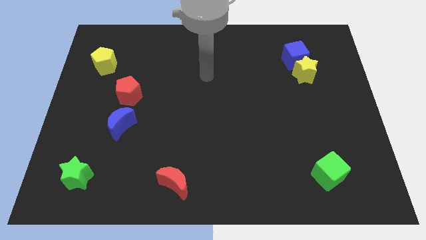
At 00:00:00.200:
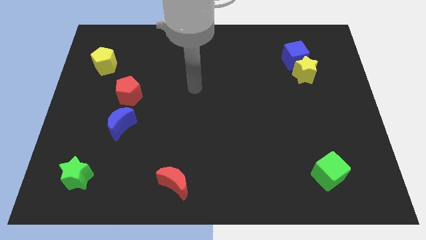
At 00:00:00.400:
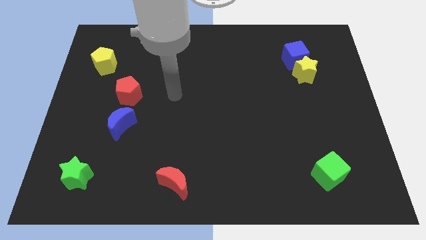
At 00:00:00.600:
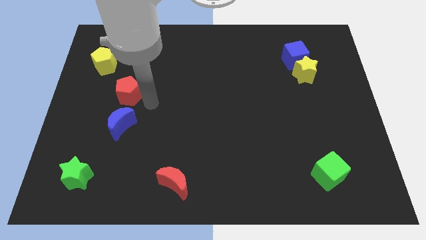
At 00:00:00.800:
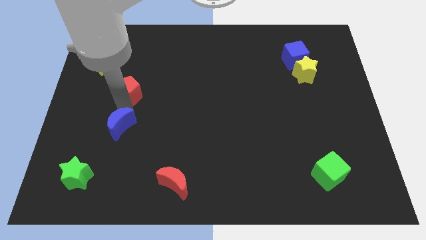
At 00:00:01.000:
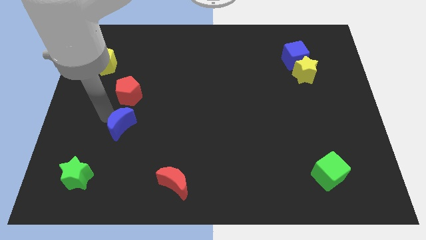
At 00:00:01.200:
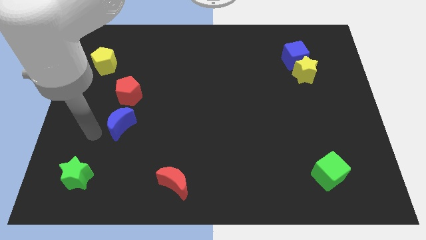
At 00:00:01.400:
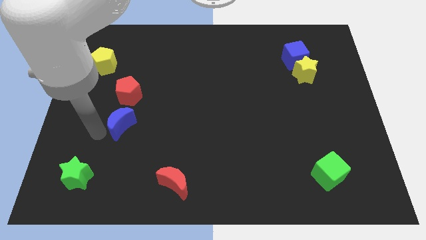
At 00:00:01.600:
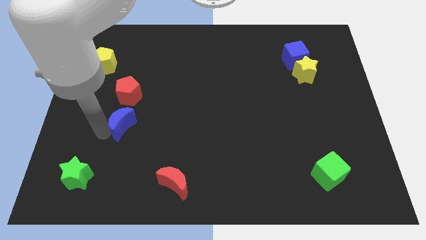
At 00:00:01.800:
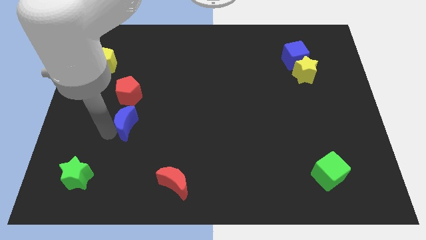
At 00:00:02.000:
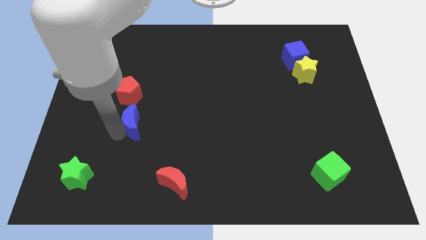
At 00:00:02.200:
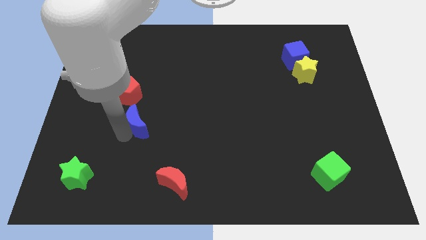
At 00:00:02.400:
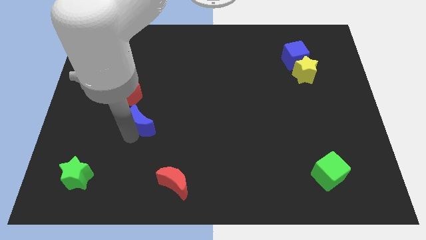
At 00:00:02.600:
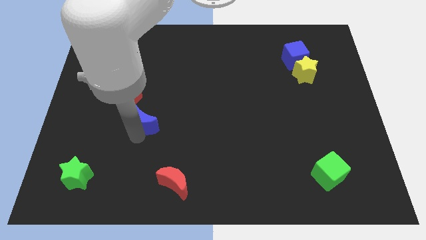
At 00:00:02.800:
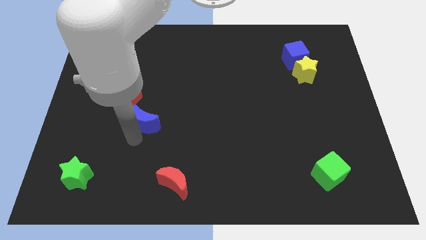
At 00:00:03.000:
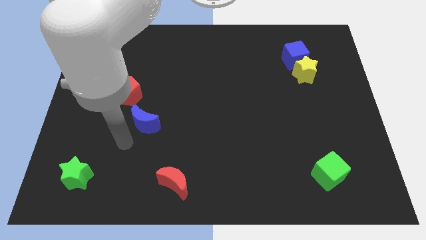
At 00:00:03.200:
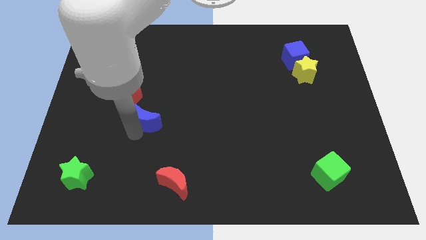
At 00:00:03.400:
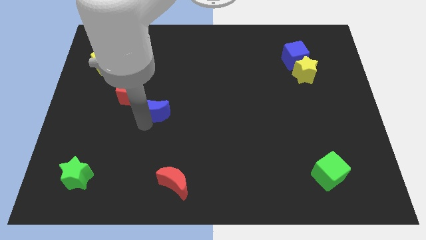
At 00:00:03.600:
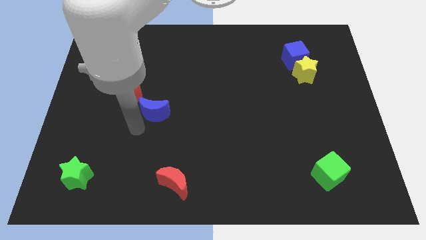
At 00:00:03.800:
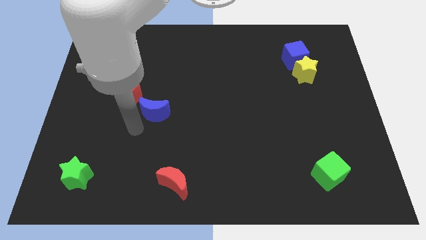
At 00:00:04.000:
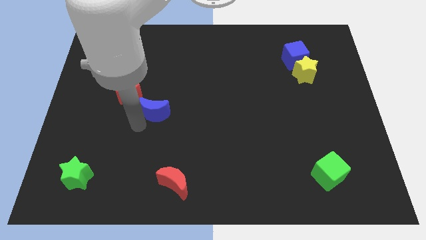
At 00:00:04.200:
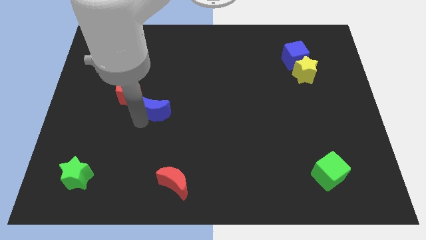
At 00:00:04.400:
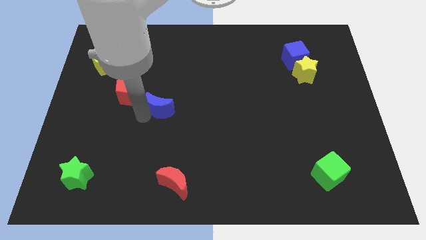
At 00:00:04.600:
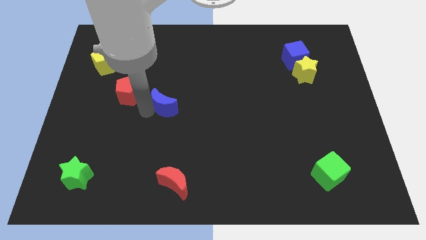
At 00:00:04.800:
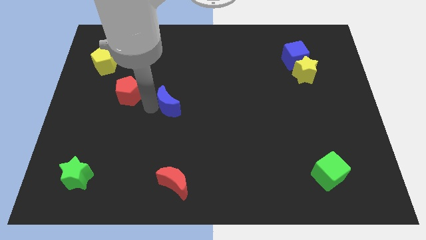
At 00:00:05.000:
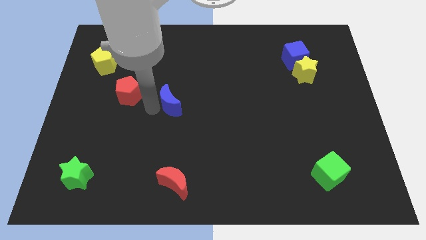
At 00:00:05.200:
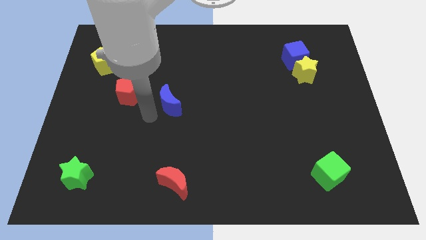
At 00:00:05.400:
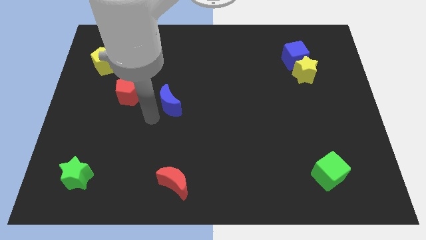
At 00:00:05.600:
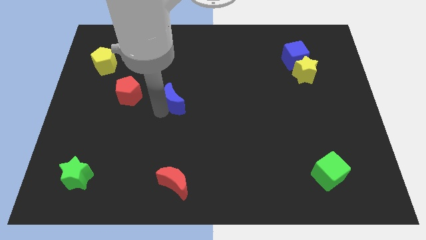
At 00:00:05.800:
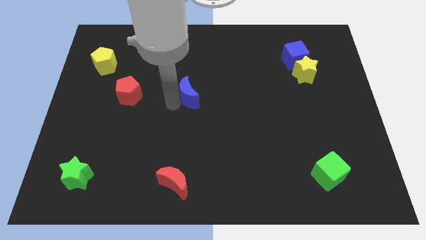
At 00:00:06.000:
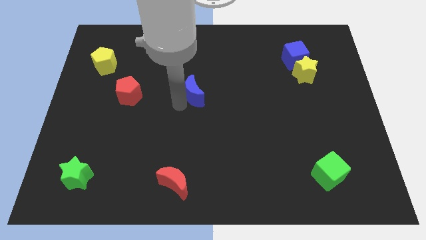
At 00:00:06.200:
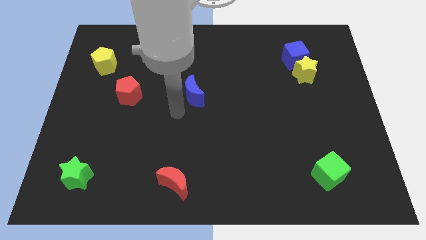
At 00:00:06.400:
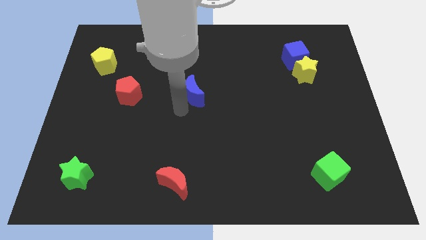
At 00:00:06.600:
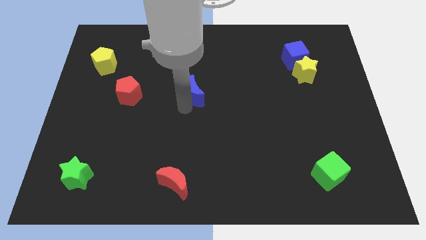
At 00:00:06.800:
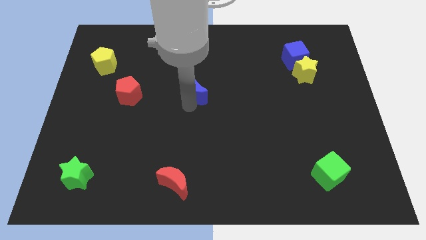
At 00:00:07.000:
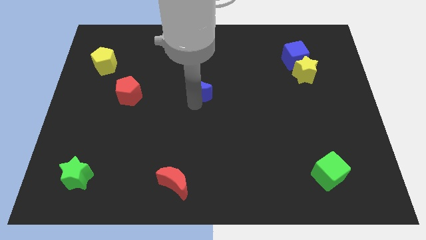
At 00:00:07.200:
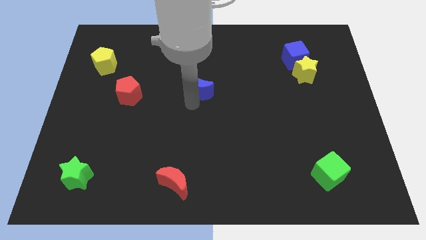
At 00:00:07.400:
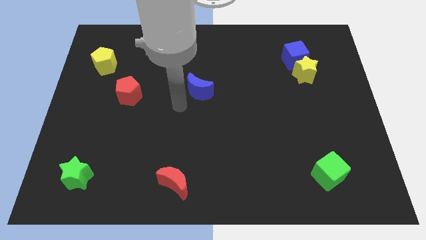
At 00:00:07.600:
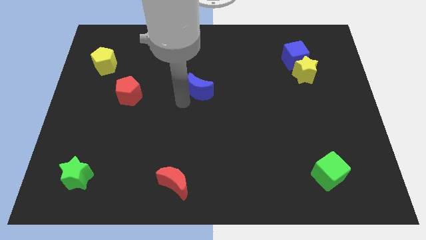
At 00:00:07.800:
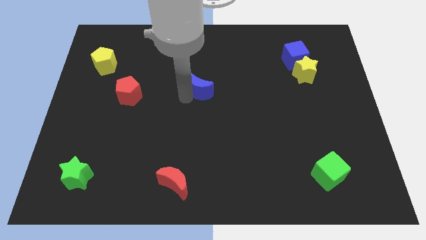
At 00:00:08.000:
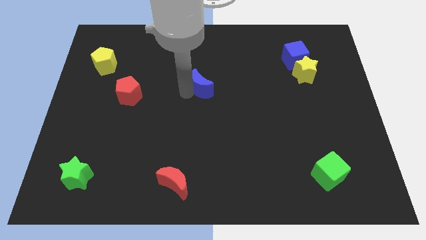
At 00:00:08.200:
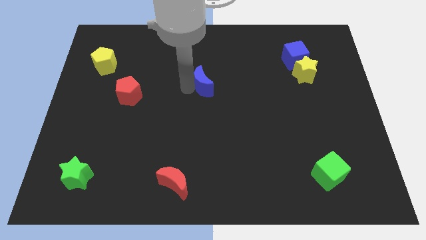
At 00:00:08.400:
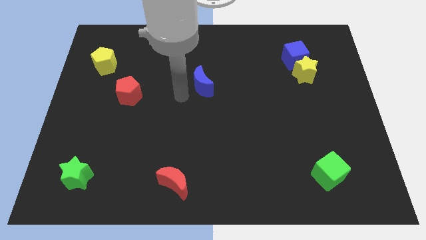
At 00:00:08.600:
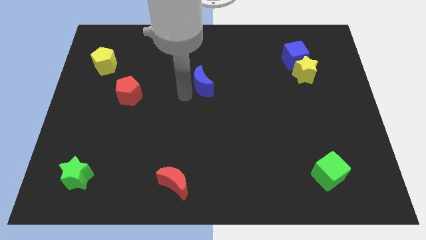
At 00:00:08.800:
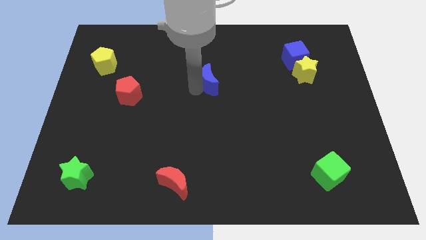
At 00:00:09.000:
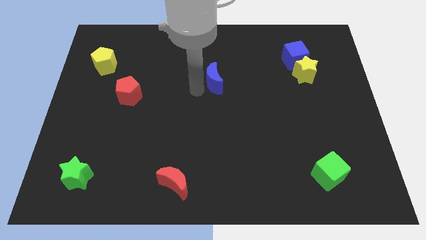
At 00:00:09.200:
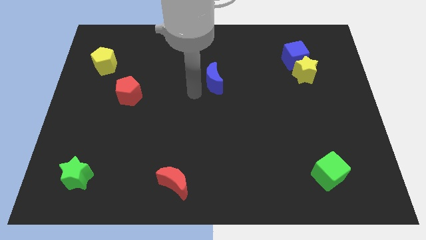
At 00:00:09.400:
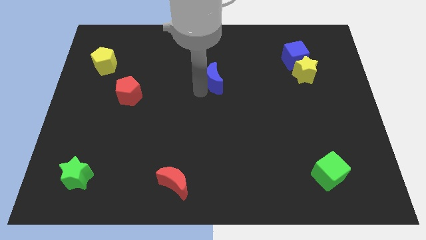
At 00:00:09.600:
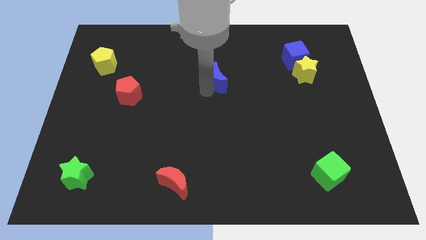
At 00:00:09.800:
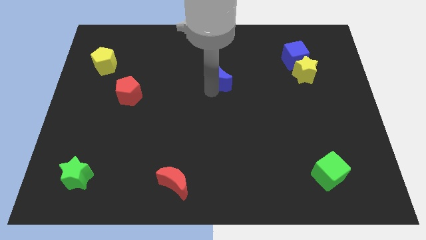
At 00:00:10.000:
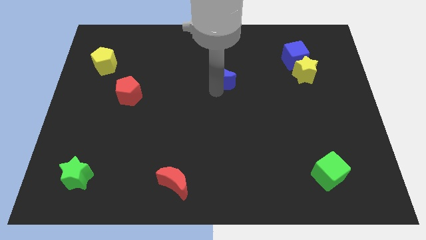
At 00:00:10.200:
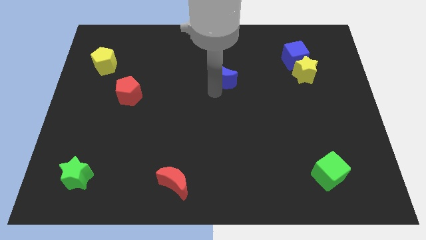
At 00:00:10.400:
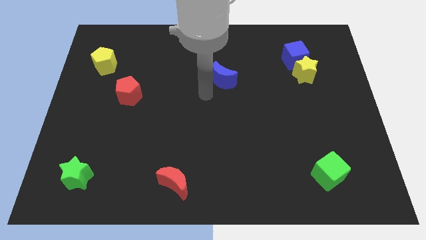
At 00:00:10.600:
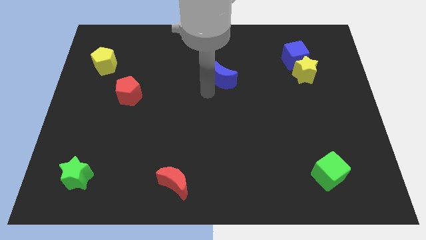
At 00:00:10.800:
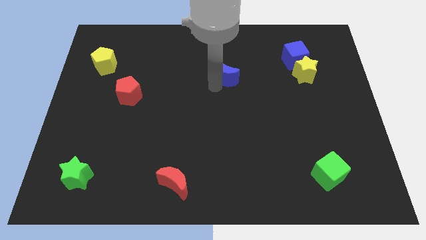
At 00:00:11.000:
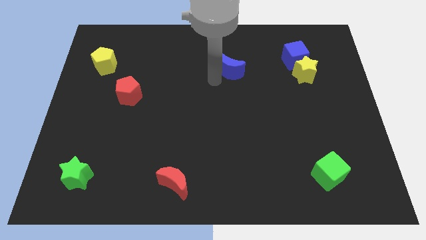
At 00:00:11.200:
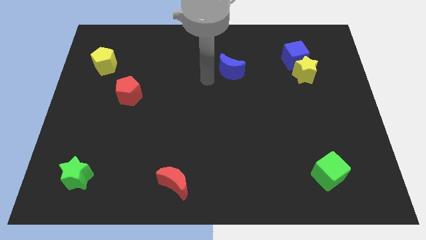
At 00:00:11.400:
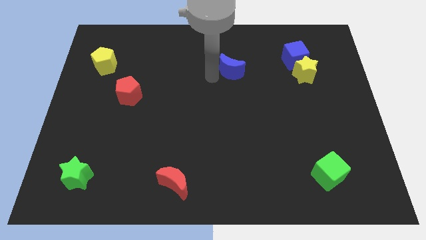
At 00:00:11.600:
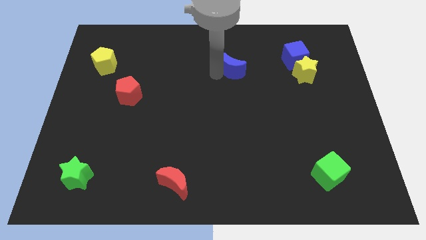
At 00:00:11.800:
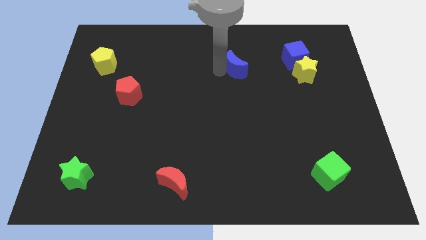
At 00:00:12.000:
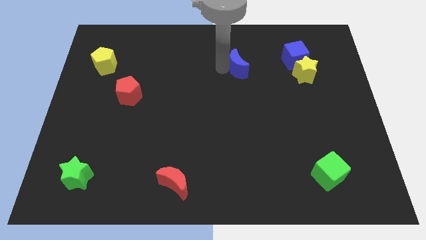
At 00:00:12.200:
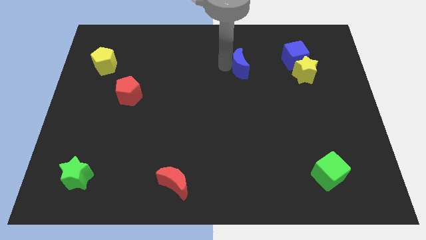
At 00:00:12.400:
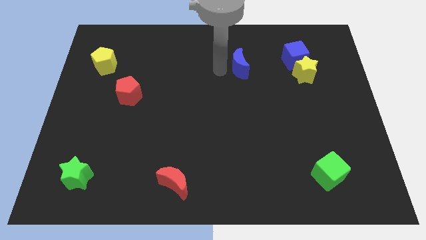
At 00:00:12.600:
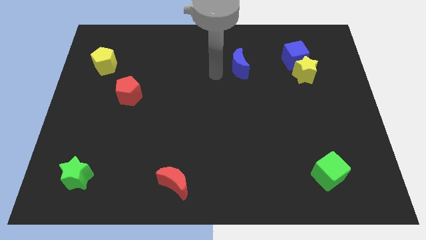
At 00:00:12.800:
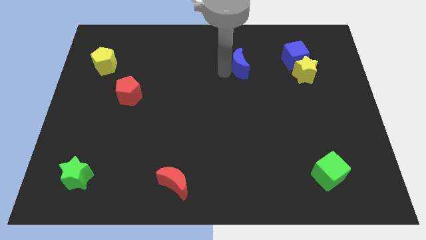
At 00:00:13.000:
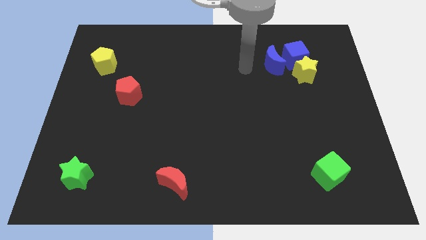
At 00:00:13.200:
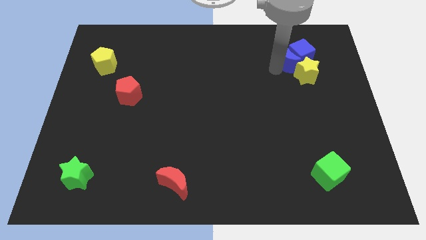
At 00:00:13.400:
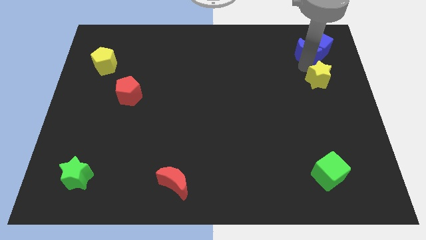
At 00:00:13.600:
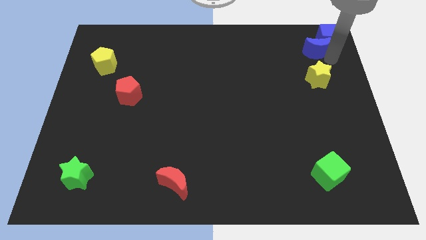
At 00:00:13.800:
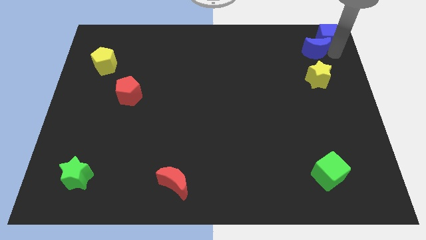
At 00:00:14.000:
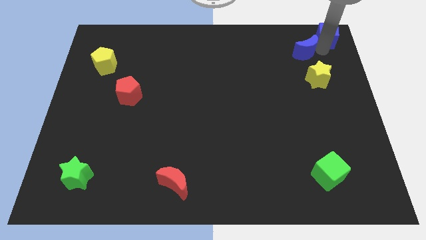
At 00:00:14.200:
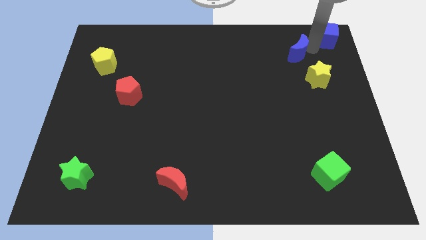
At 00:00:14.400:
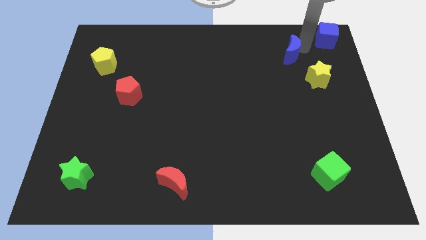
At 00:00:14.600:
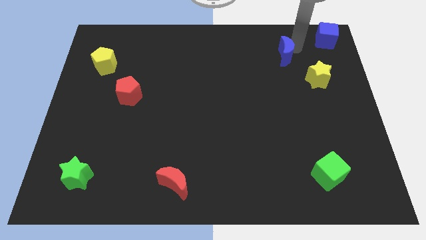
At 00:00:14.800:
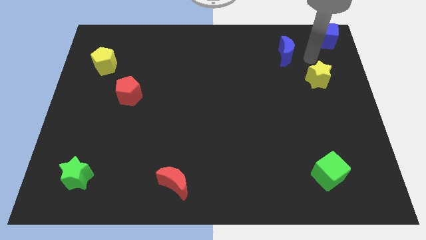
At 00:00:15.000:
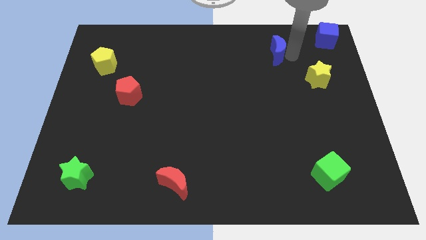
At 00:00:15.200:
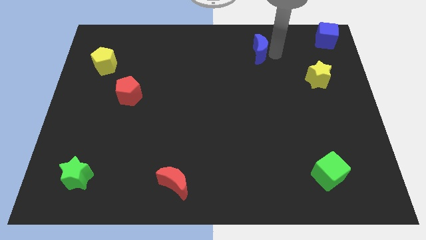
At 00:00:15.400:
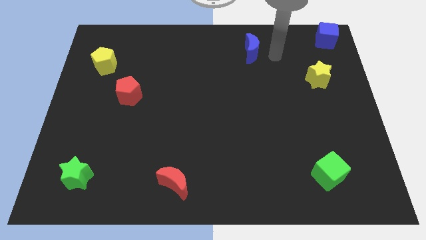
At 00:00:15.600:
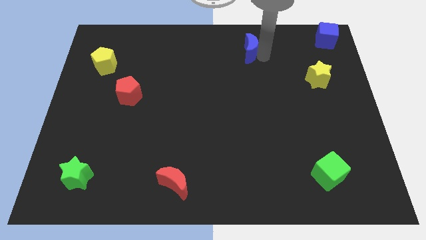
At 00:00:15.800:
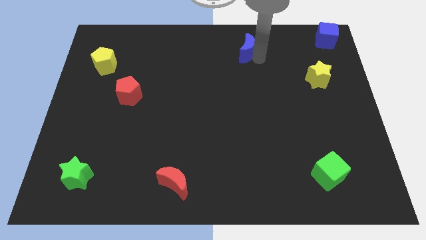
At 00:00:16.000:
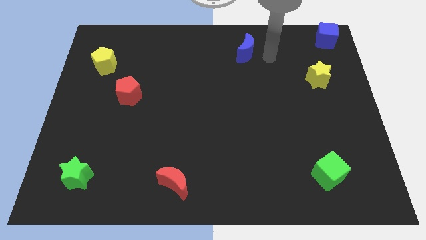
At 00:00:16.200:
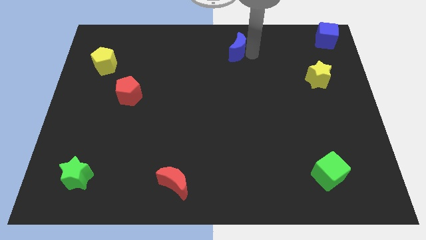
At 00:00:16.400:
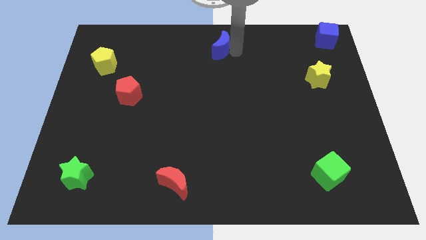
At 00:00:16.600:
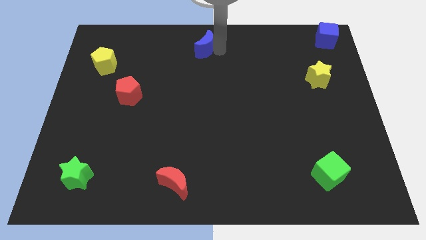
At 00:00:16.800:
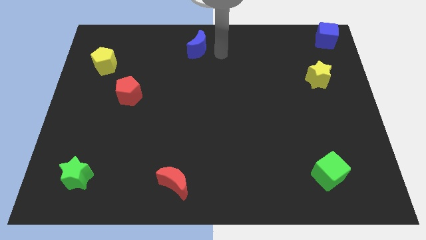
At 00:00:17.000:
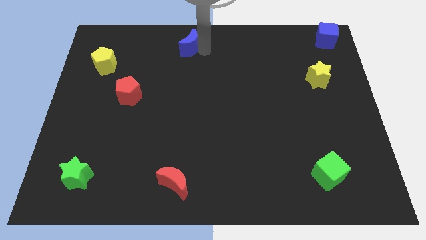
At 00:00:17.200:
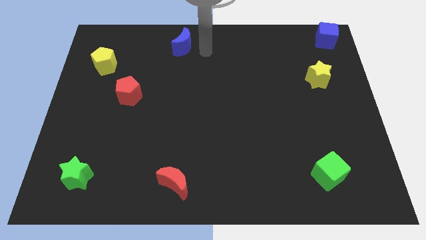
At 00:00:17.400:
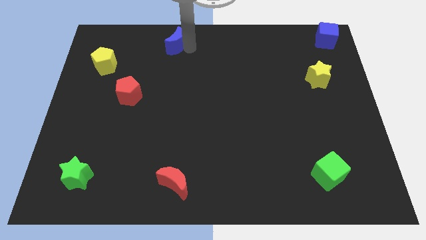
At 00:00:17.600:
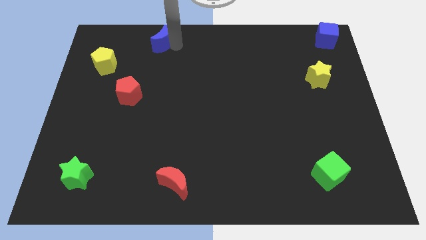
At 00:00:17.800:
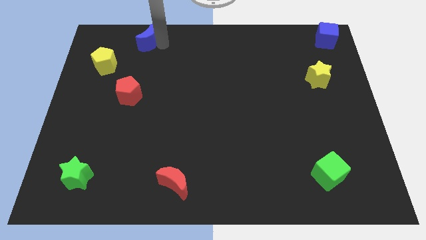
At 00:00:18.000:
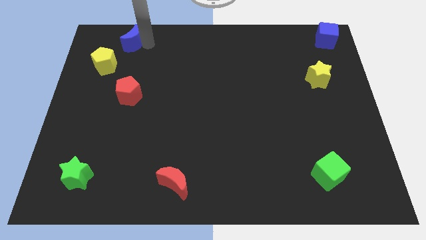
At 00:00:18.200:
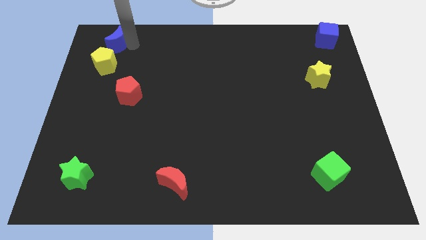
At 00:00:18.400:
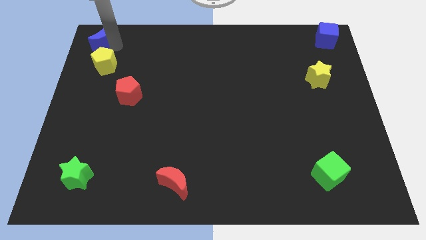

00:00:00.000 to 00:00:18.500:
push the blue moon to the top left corner
